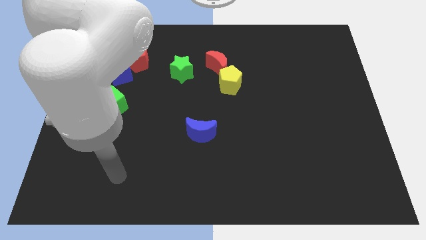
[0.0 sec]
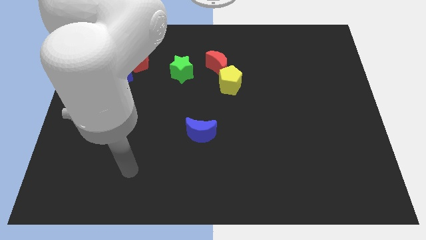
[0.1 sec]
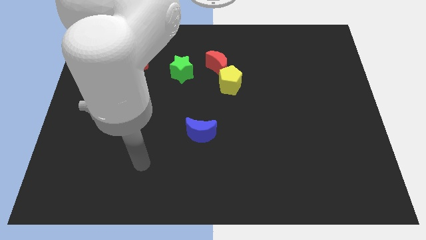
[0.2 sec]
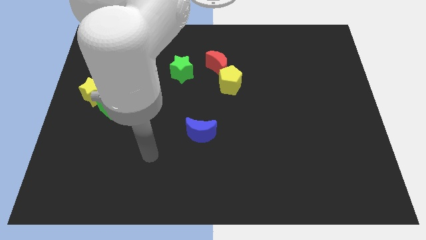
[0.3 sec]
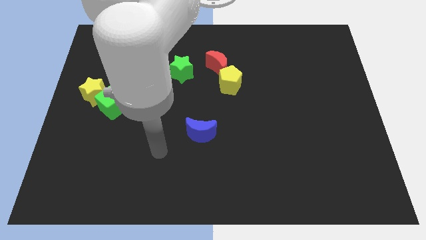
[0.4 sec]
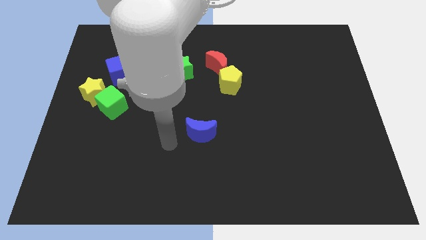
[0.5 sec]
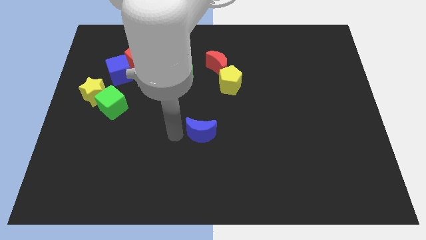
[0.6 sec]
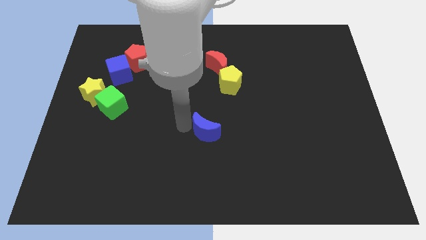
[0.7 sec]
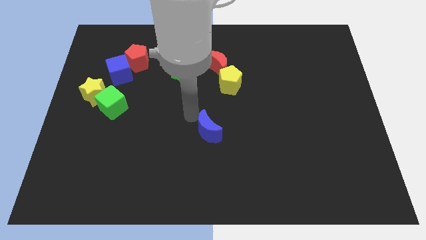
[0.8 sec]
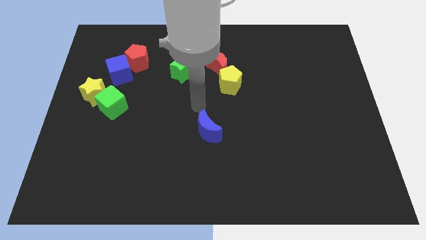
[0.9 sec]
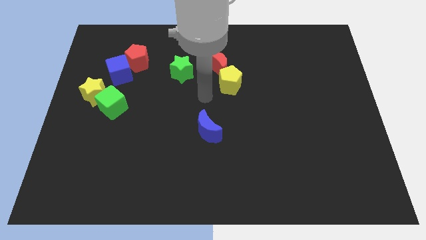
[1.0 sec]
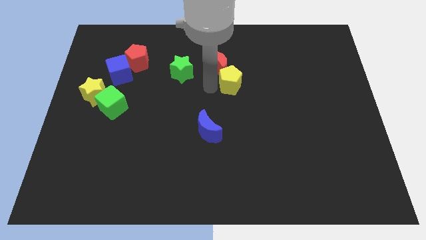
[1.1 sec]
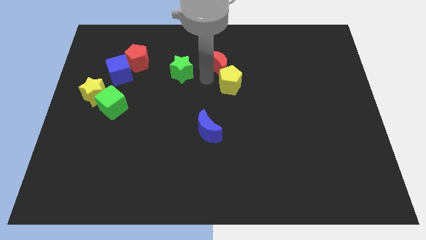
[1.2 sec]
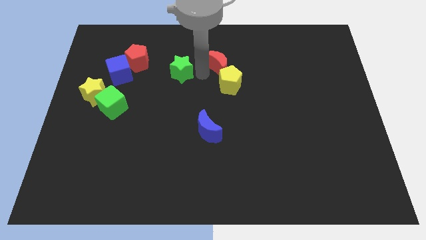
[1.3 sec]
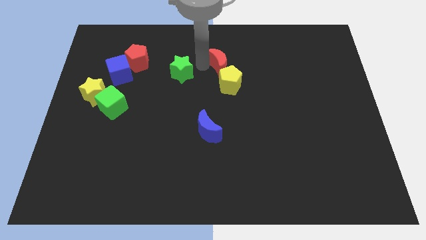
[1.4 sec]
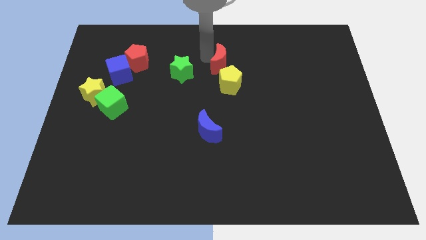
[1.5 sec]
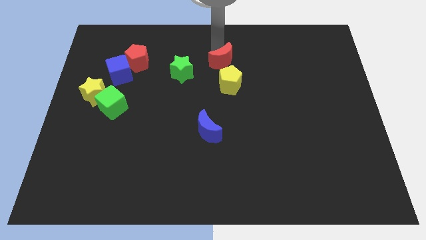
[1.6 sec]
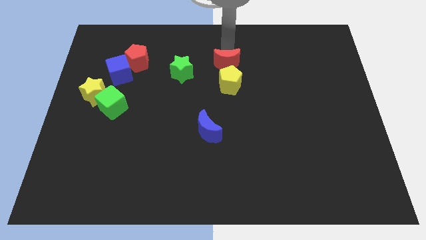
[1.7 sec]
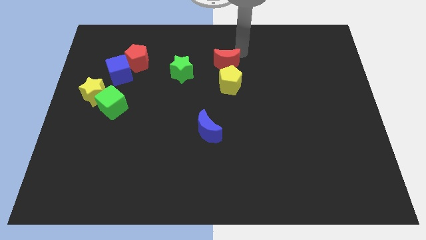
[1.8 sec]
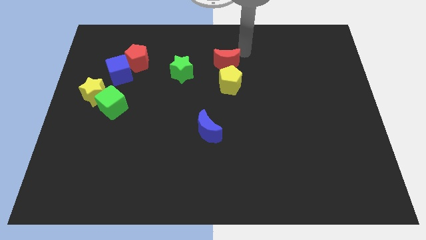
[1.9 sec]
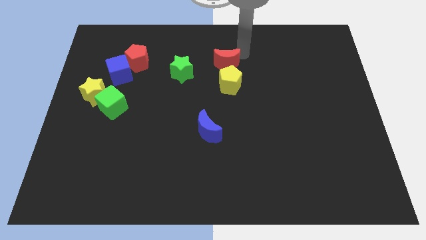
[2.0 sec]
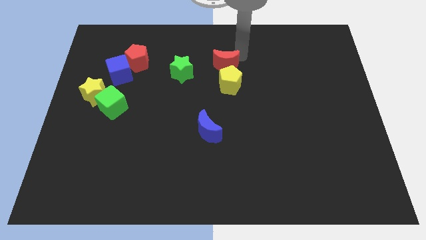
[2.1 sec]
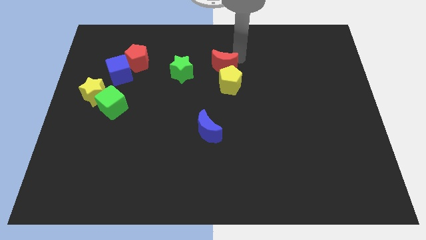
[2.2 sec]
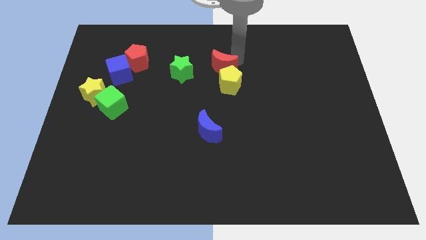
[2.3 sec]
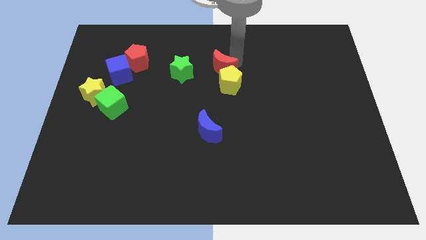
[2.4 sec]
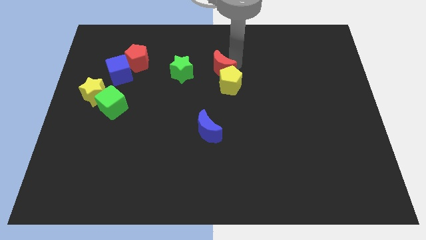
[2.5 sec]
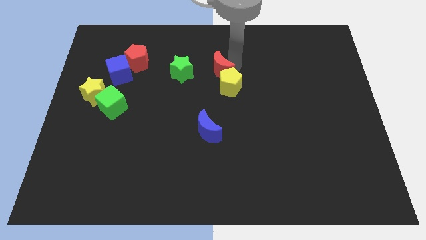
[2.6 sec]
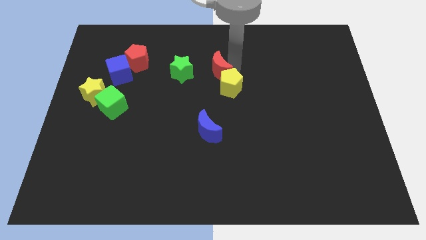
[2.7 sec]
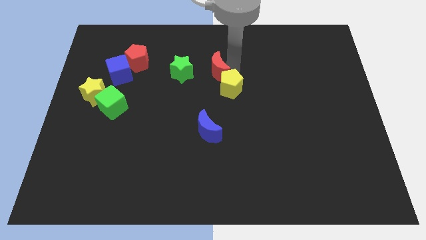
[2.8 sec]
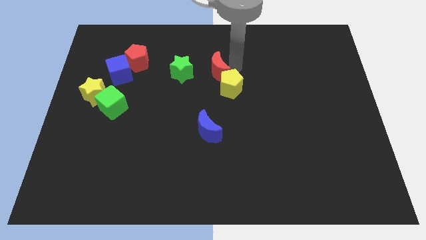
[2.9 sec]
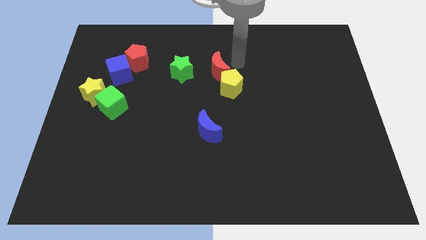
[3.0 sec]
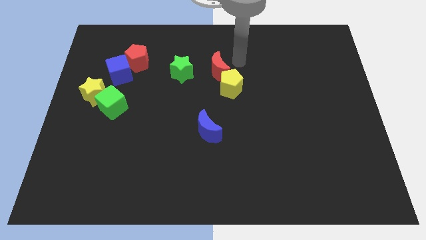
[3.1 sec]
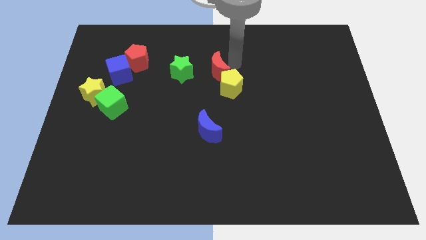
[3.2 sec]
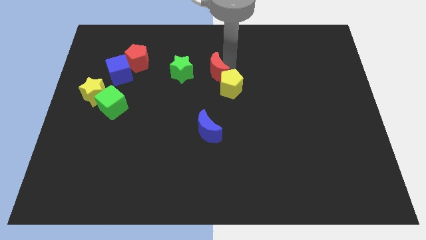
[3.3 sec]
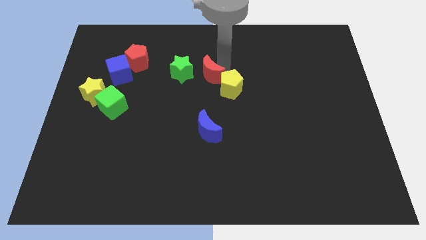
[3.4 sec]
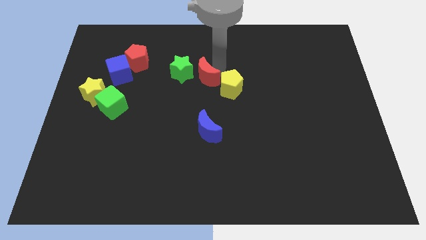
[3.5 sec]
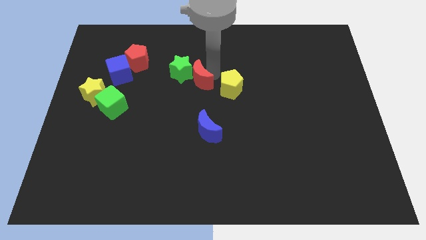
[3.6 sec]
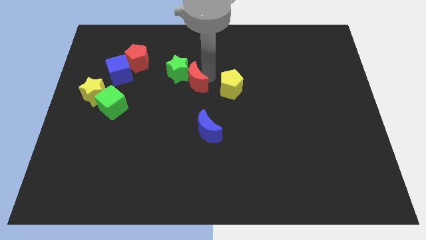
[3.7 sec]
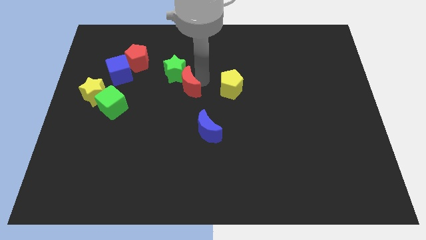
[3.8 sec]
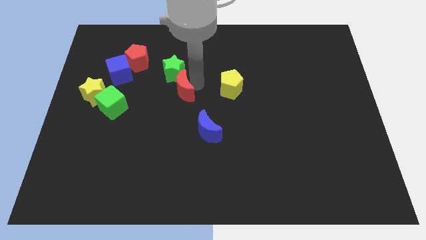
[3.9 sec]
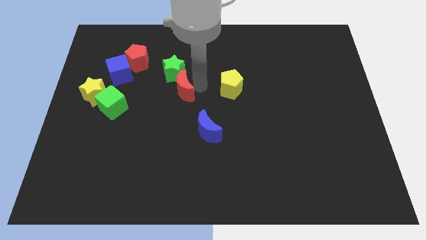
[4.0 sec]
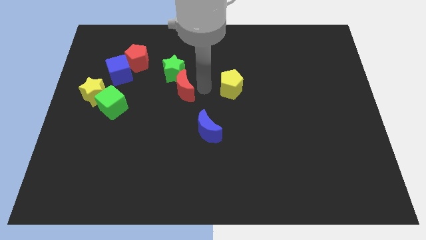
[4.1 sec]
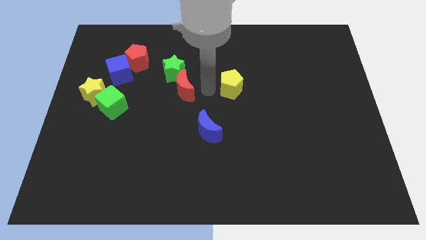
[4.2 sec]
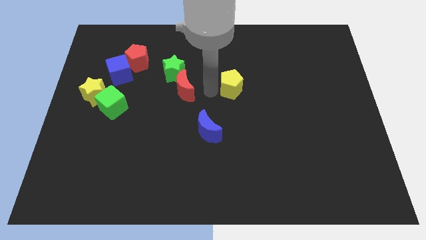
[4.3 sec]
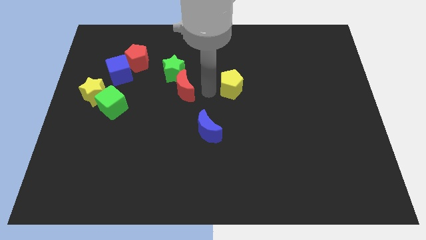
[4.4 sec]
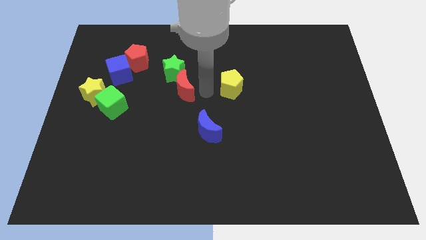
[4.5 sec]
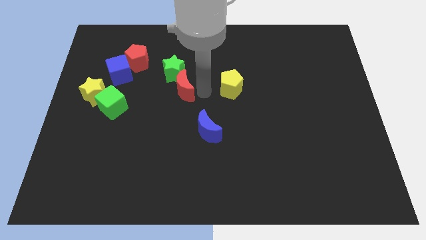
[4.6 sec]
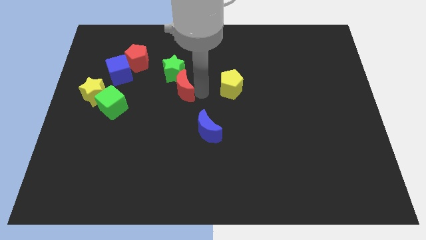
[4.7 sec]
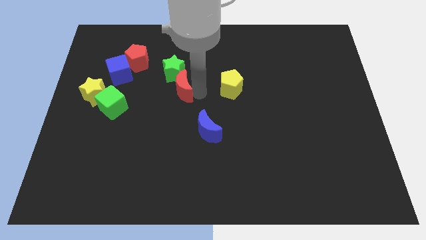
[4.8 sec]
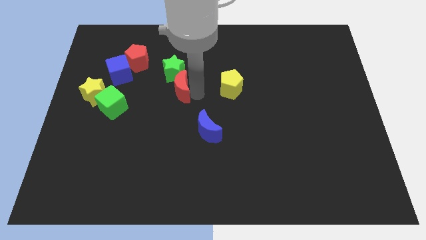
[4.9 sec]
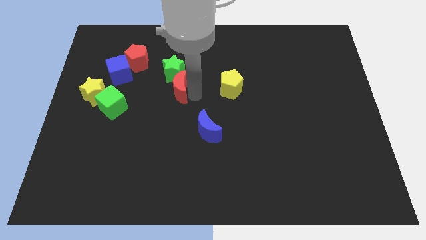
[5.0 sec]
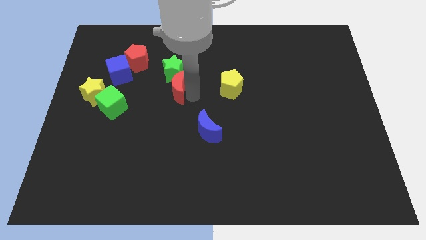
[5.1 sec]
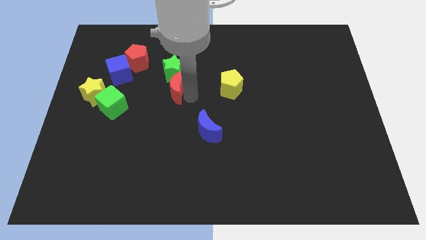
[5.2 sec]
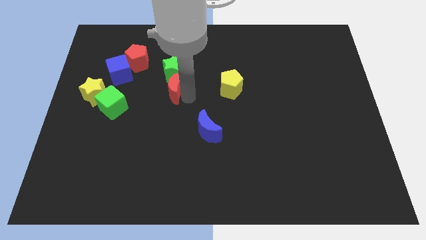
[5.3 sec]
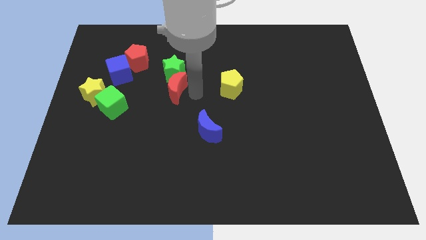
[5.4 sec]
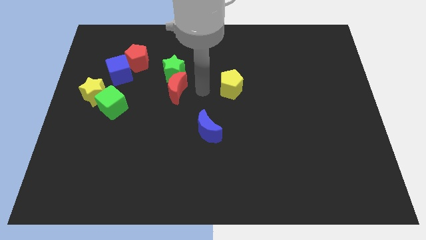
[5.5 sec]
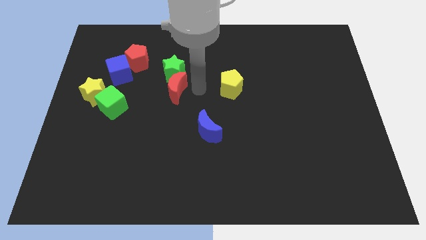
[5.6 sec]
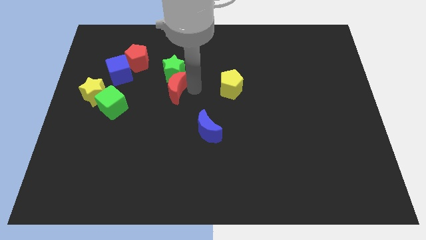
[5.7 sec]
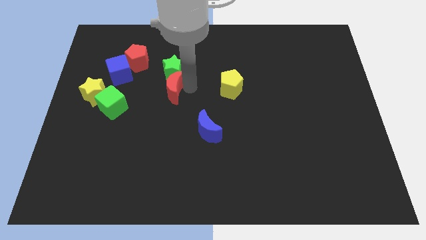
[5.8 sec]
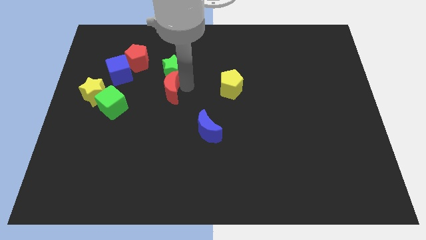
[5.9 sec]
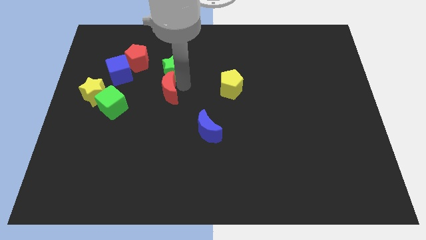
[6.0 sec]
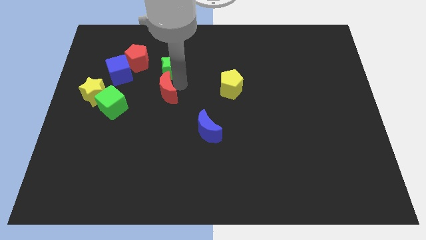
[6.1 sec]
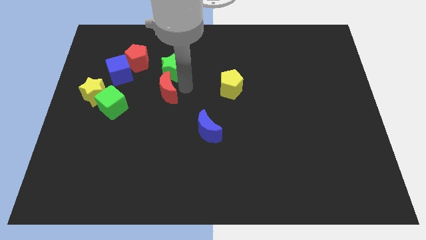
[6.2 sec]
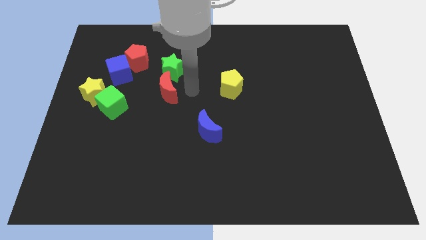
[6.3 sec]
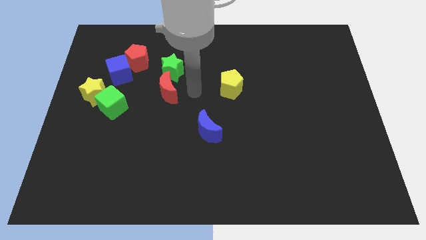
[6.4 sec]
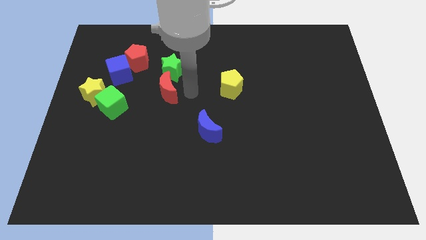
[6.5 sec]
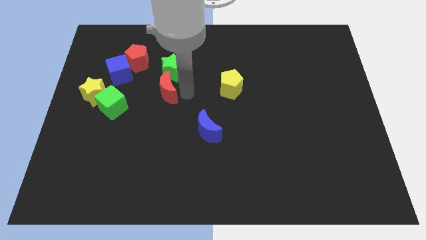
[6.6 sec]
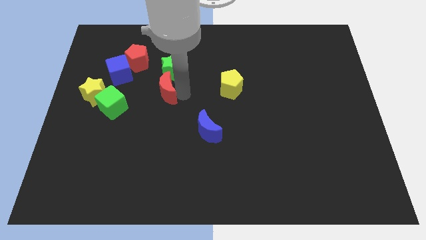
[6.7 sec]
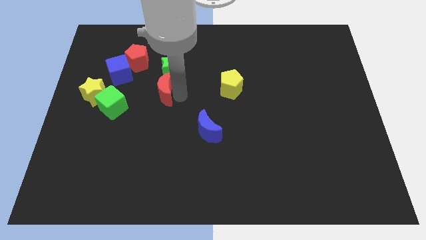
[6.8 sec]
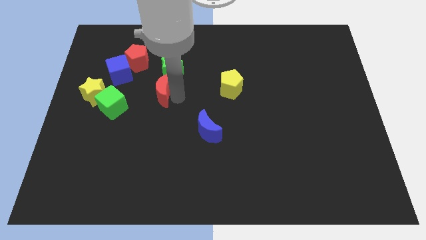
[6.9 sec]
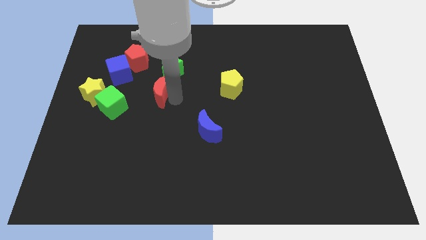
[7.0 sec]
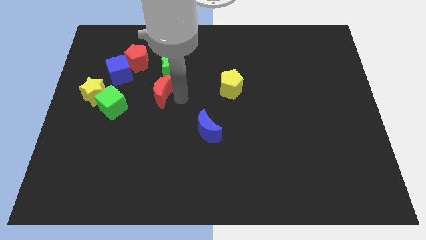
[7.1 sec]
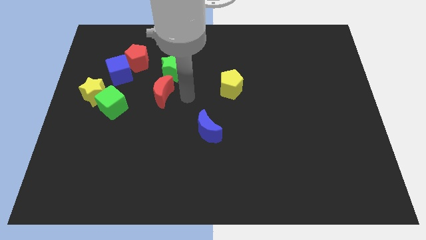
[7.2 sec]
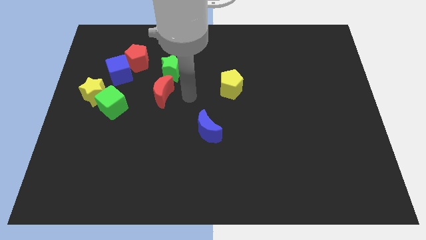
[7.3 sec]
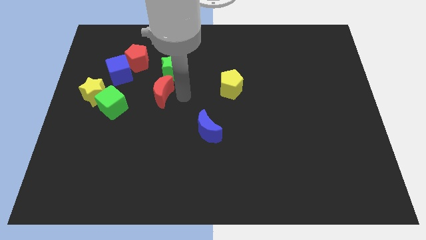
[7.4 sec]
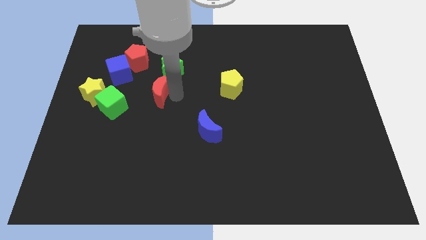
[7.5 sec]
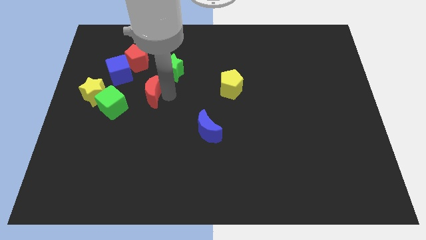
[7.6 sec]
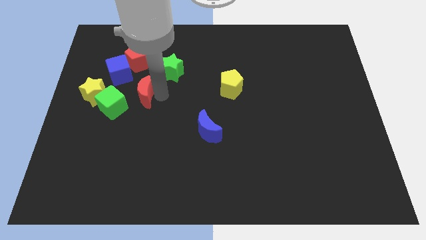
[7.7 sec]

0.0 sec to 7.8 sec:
slide the red moon to the bottom of the red pentagon
